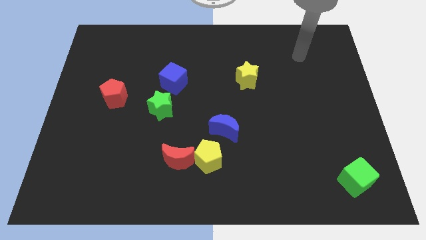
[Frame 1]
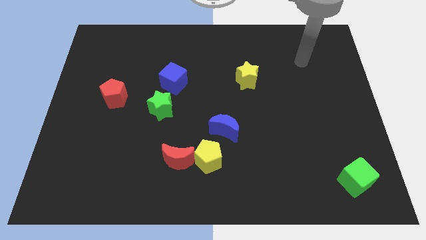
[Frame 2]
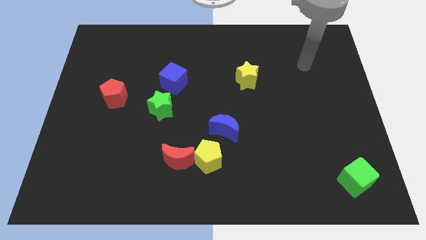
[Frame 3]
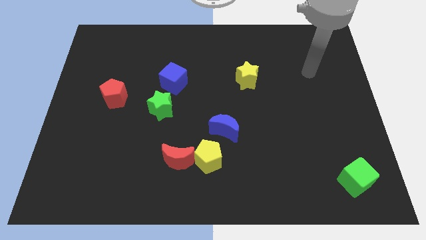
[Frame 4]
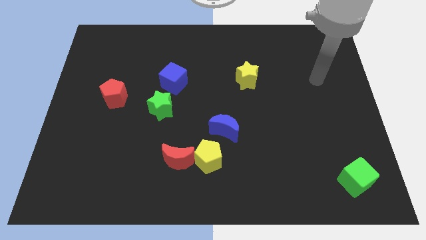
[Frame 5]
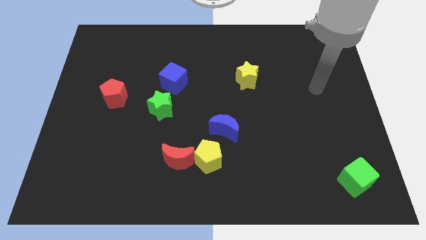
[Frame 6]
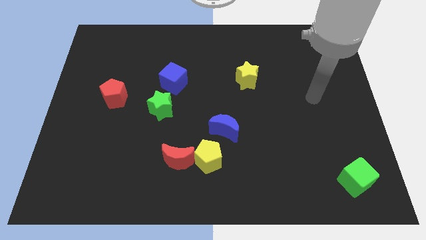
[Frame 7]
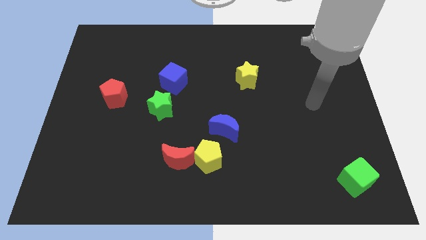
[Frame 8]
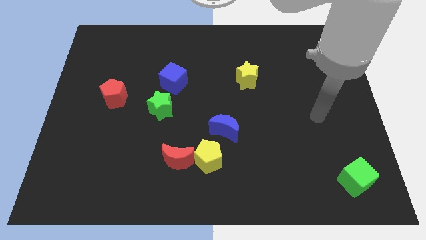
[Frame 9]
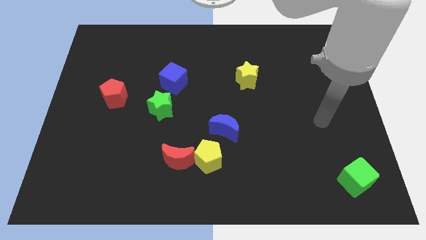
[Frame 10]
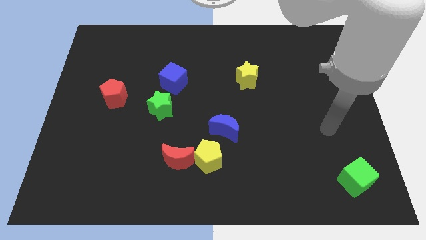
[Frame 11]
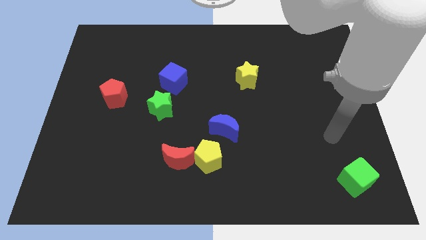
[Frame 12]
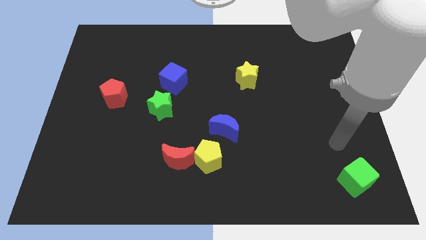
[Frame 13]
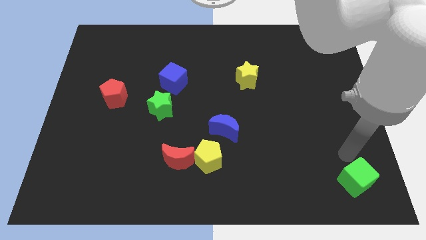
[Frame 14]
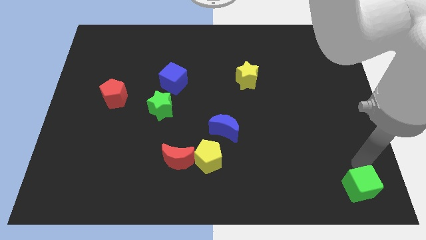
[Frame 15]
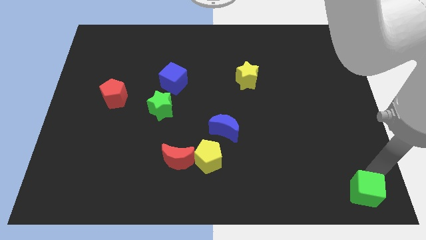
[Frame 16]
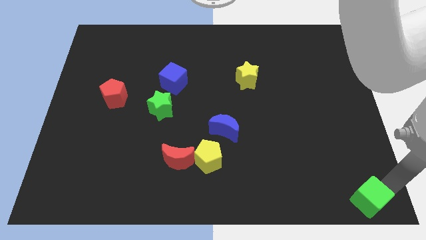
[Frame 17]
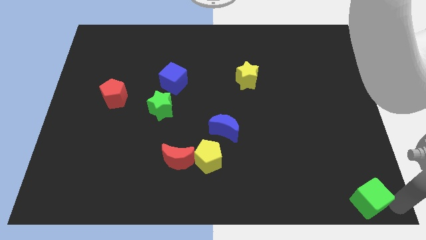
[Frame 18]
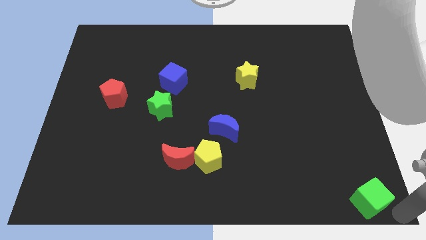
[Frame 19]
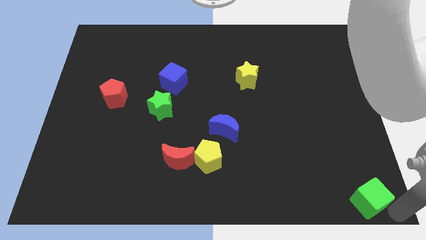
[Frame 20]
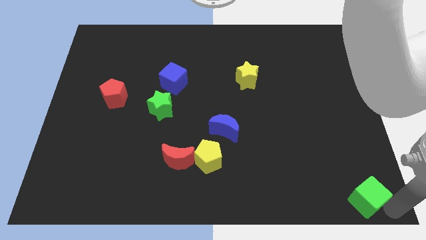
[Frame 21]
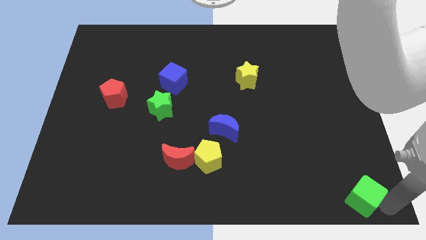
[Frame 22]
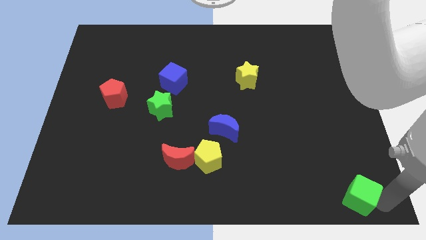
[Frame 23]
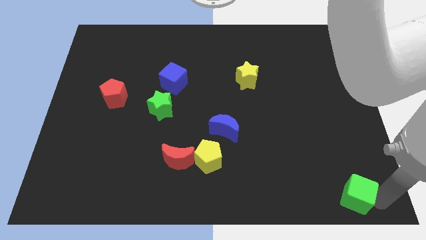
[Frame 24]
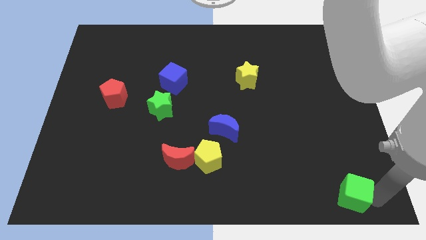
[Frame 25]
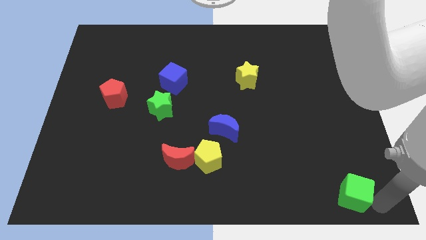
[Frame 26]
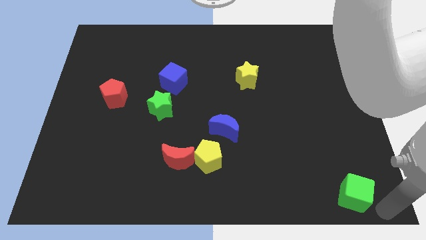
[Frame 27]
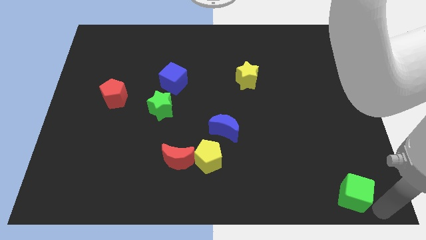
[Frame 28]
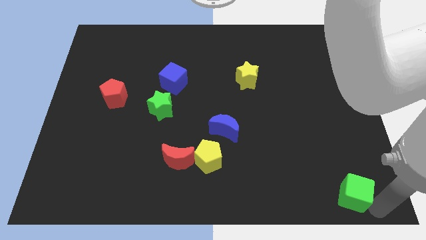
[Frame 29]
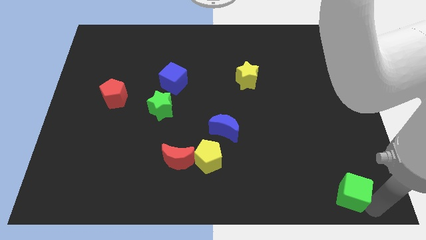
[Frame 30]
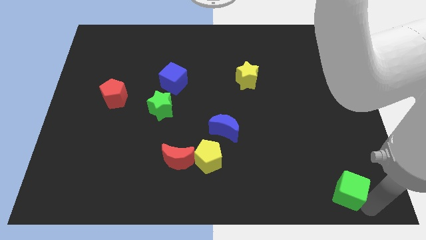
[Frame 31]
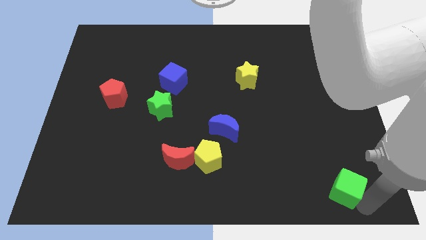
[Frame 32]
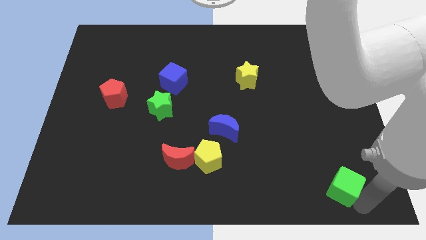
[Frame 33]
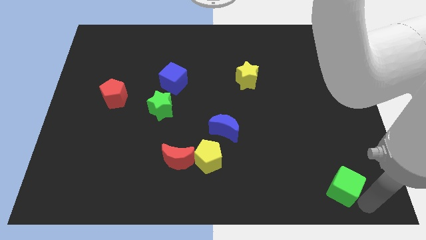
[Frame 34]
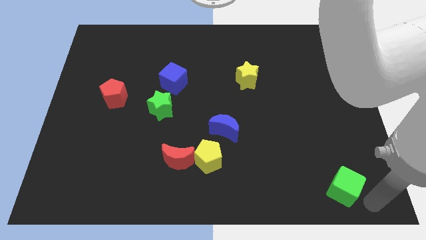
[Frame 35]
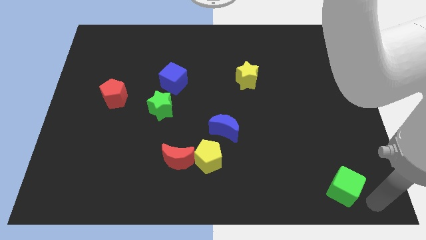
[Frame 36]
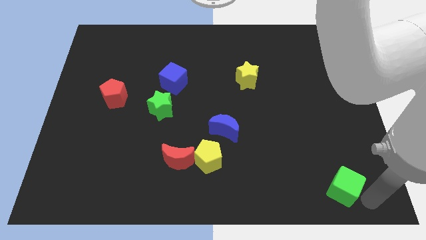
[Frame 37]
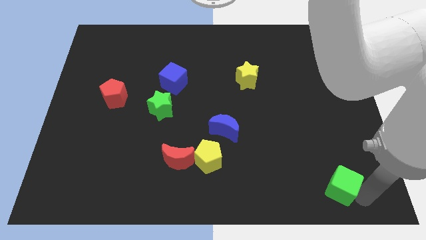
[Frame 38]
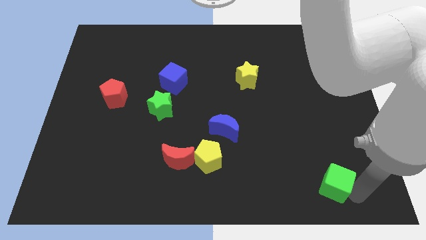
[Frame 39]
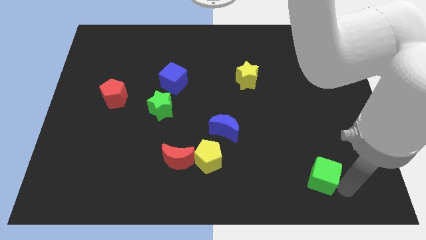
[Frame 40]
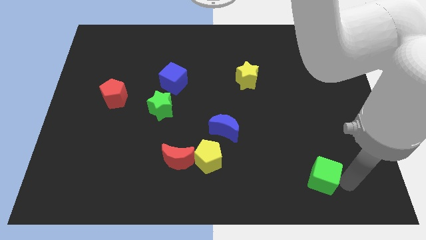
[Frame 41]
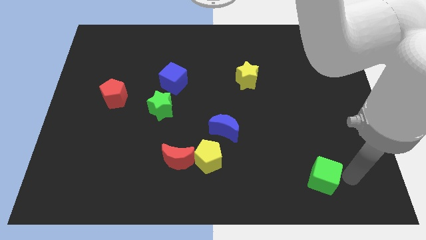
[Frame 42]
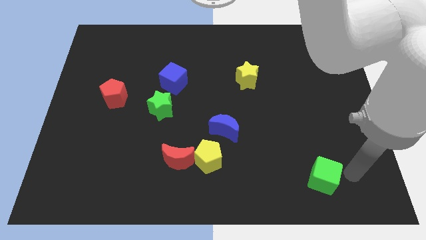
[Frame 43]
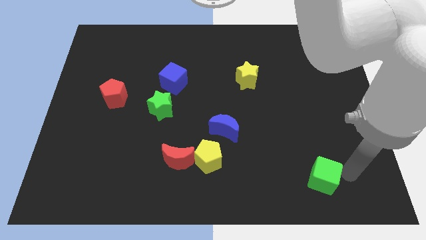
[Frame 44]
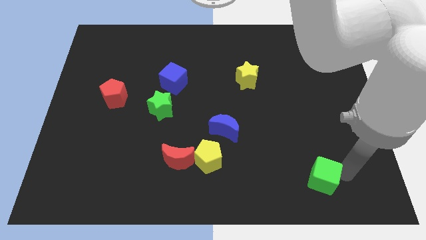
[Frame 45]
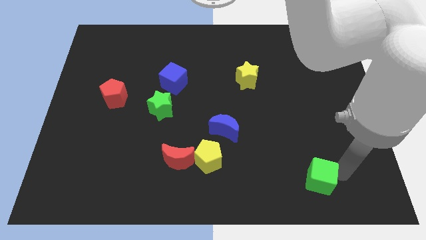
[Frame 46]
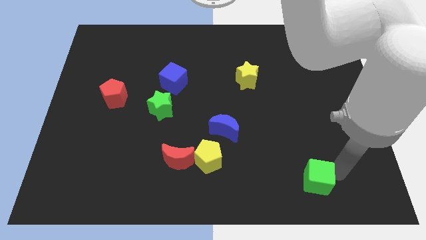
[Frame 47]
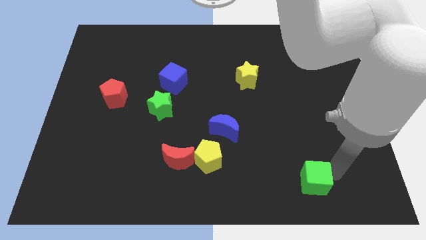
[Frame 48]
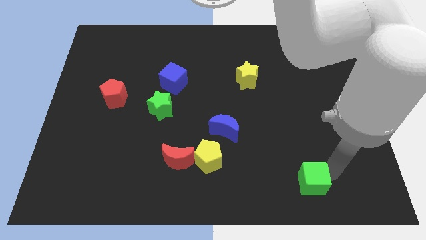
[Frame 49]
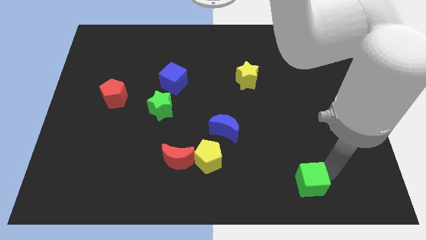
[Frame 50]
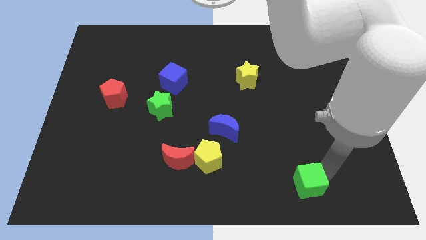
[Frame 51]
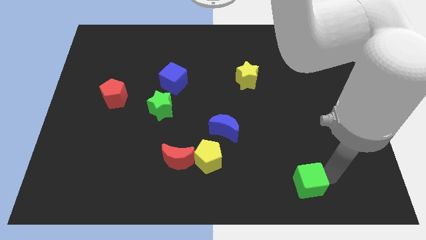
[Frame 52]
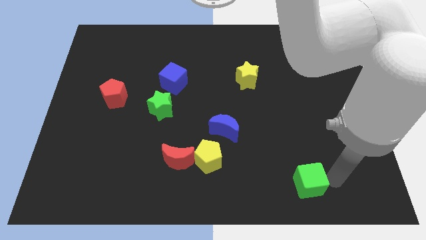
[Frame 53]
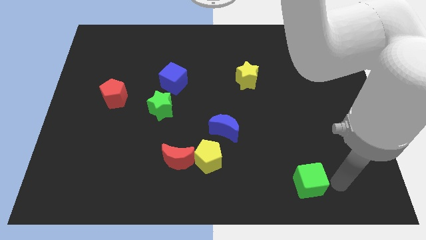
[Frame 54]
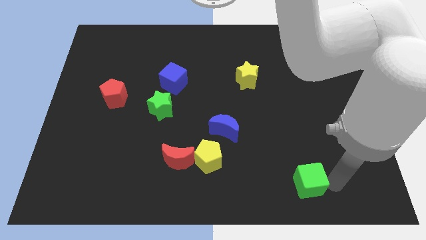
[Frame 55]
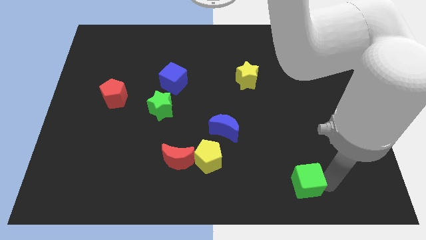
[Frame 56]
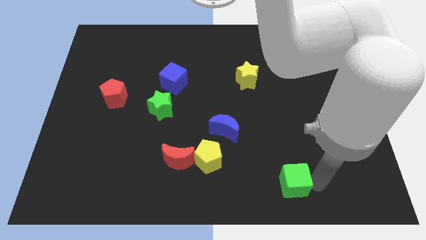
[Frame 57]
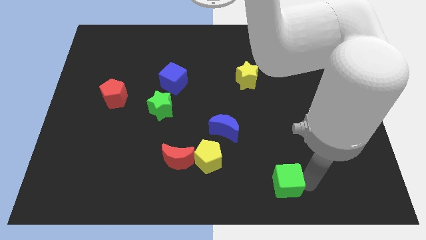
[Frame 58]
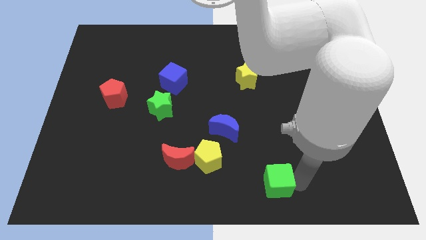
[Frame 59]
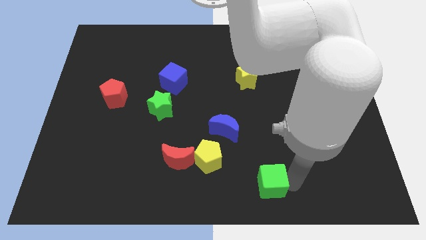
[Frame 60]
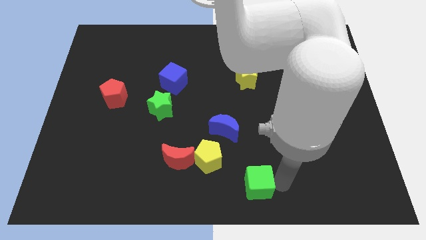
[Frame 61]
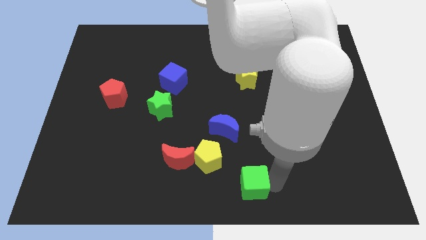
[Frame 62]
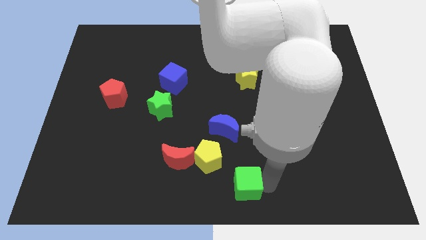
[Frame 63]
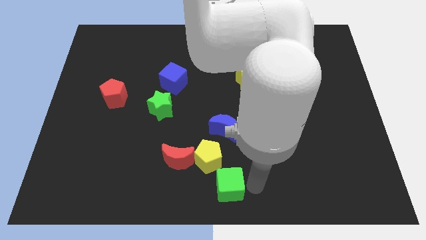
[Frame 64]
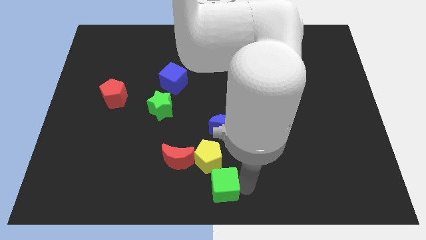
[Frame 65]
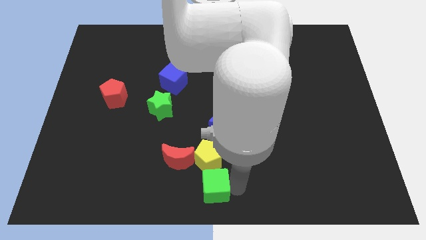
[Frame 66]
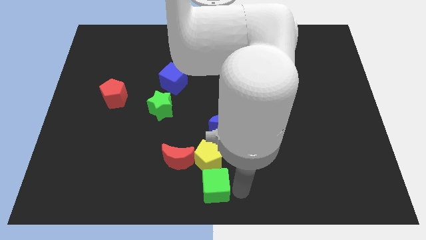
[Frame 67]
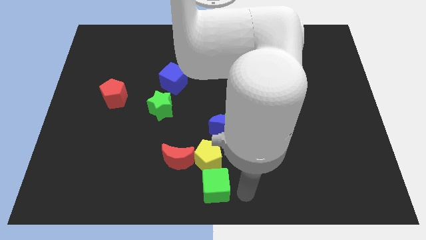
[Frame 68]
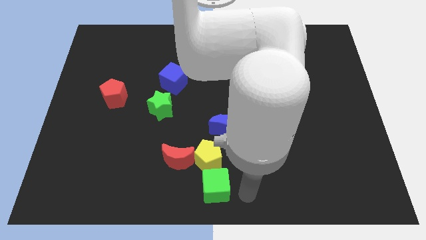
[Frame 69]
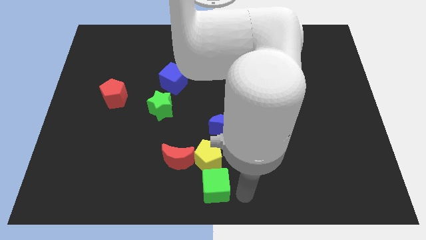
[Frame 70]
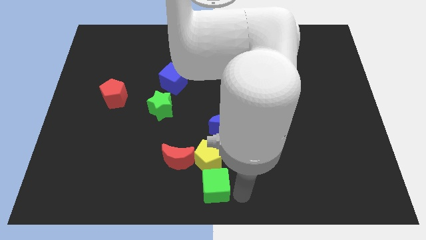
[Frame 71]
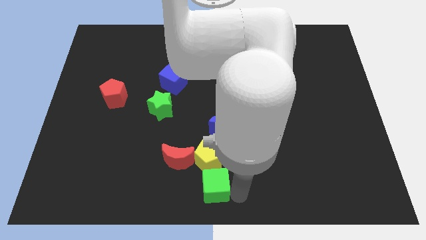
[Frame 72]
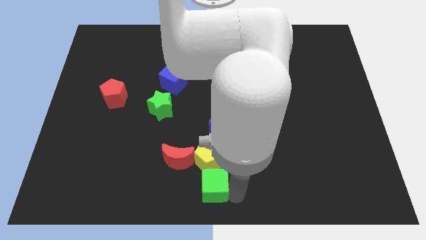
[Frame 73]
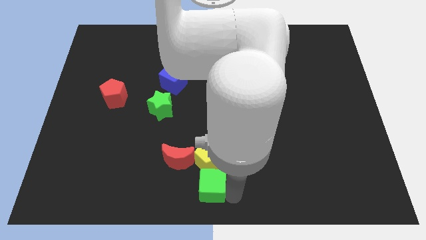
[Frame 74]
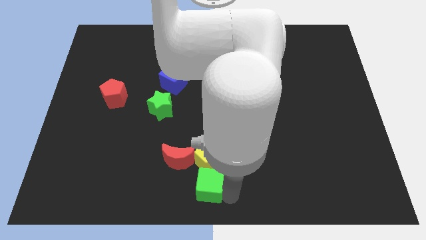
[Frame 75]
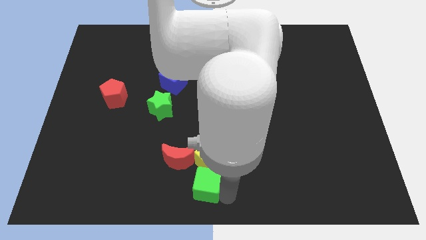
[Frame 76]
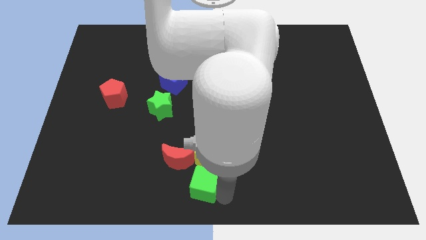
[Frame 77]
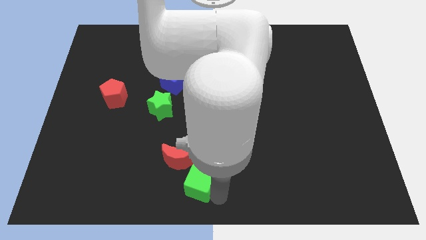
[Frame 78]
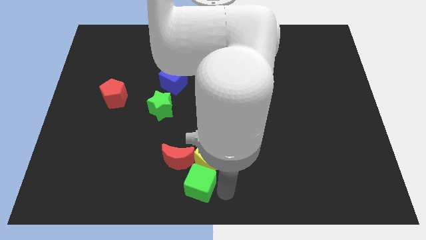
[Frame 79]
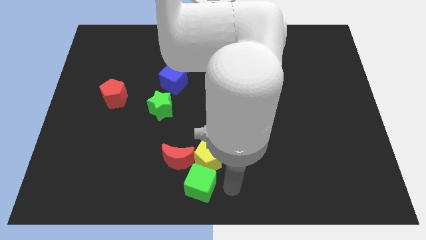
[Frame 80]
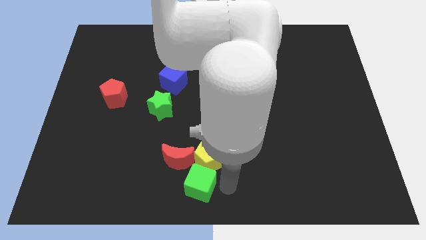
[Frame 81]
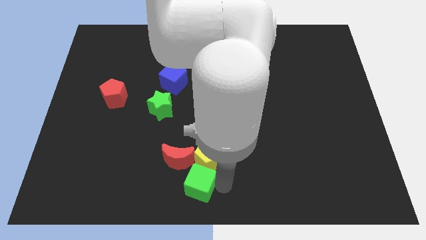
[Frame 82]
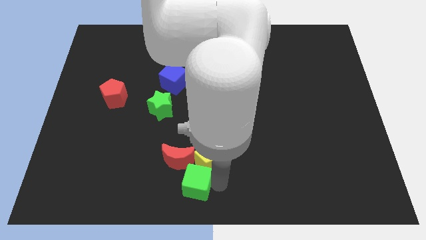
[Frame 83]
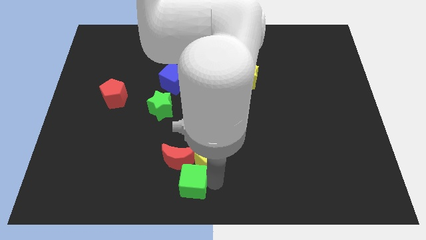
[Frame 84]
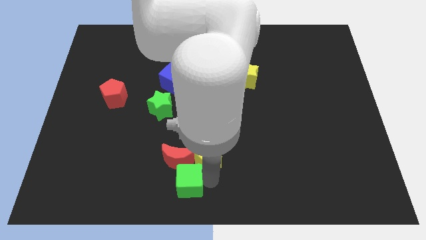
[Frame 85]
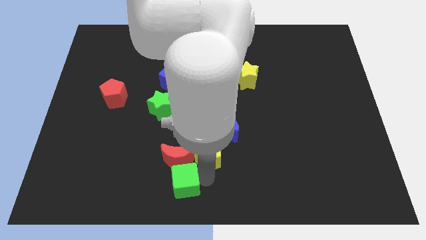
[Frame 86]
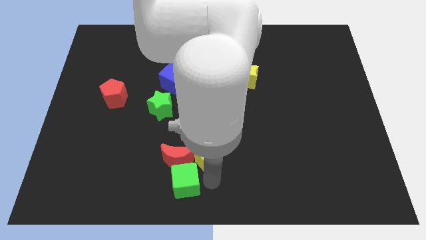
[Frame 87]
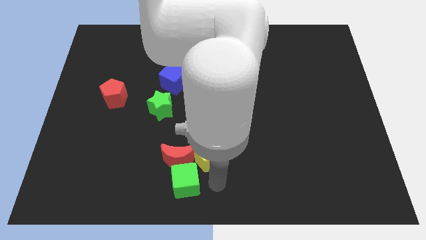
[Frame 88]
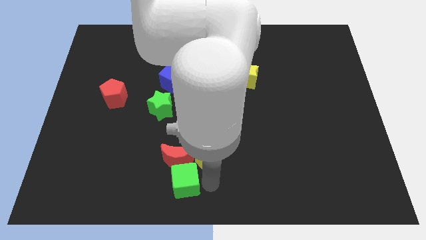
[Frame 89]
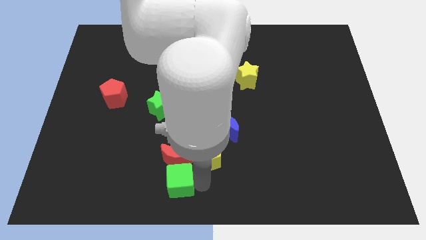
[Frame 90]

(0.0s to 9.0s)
put the green cube to the bottom left side of the red moon
